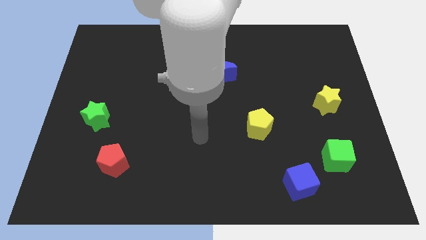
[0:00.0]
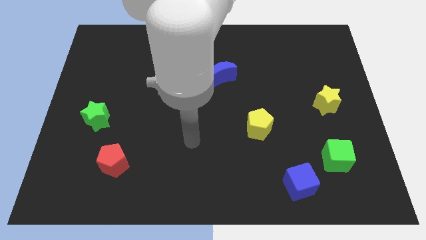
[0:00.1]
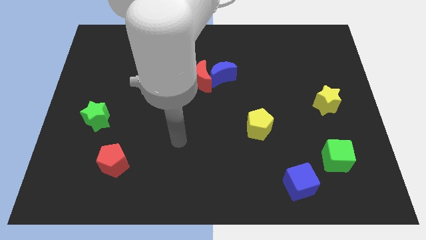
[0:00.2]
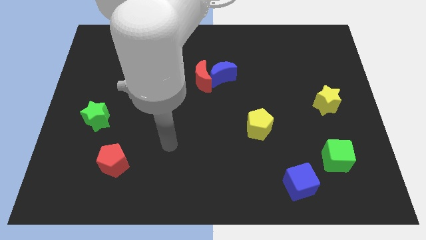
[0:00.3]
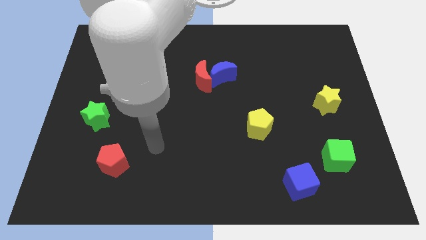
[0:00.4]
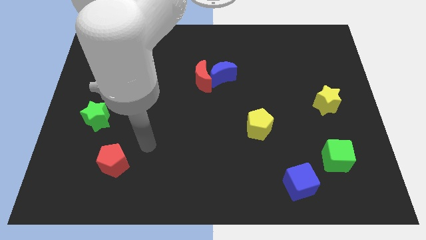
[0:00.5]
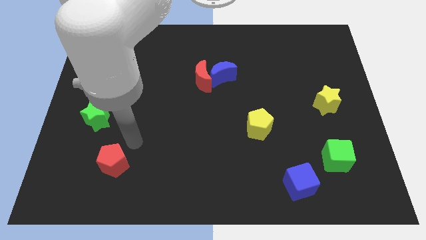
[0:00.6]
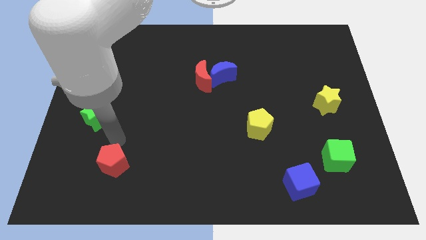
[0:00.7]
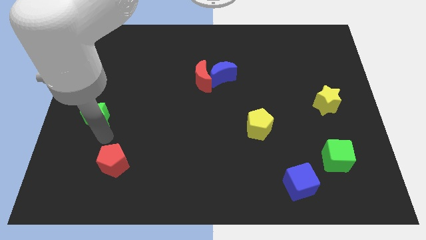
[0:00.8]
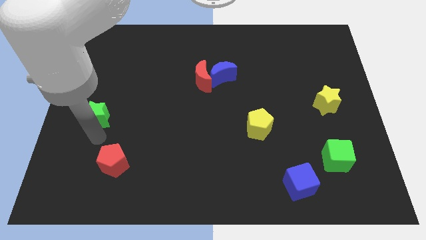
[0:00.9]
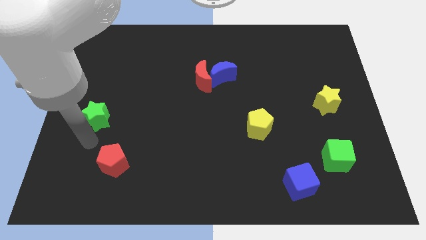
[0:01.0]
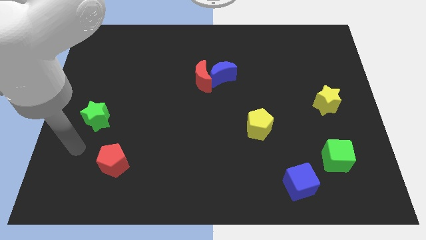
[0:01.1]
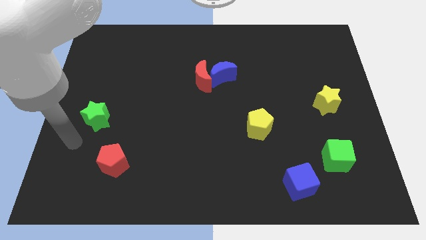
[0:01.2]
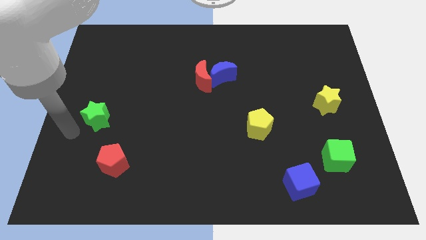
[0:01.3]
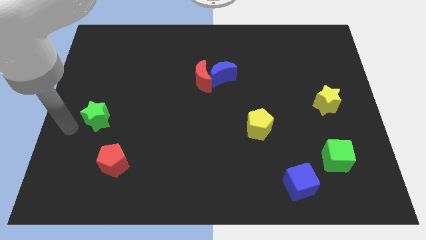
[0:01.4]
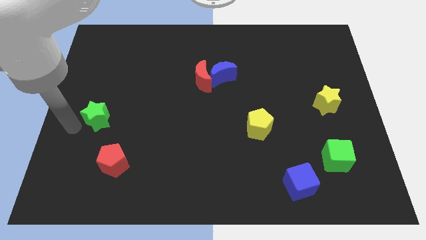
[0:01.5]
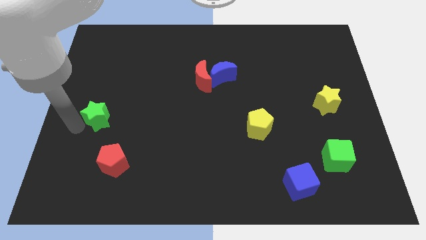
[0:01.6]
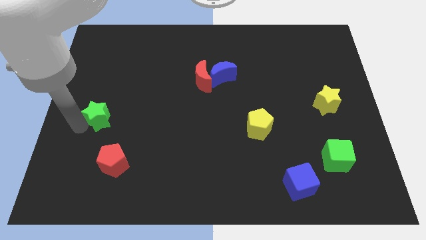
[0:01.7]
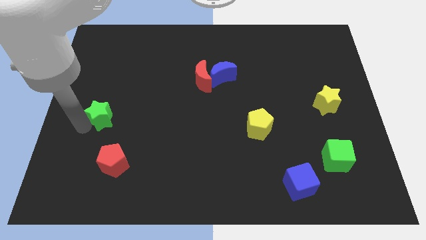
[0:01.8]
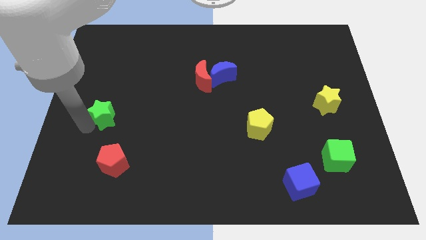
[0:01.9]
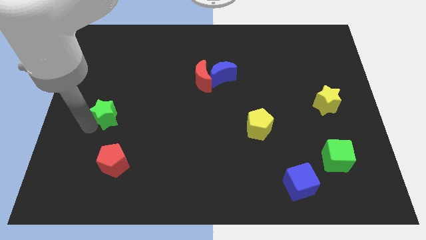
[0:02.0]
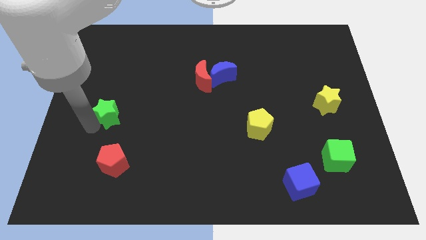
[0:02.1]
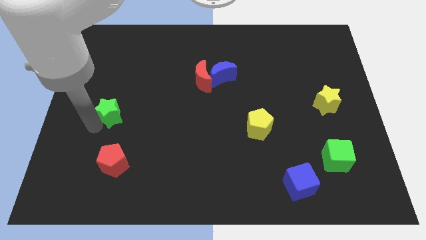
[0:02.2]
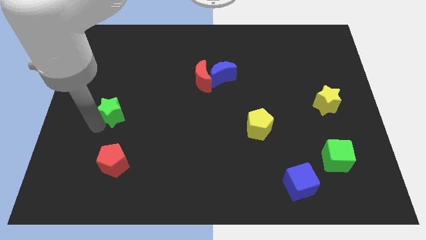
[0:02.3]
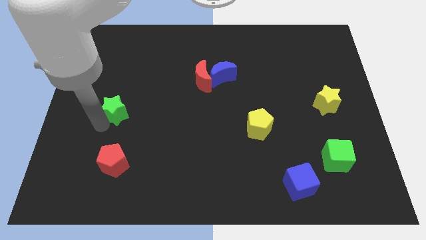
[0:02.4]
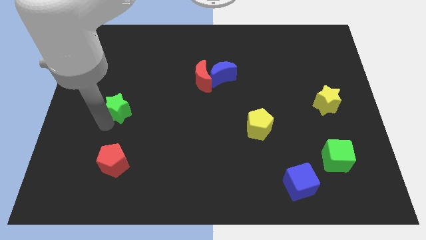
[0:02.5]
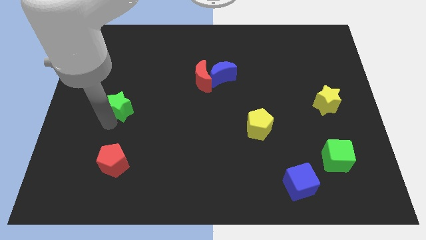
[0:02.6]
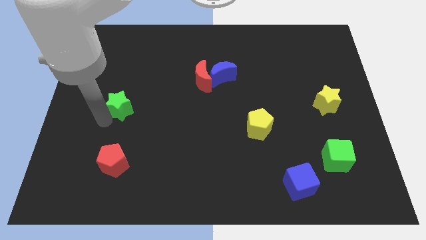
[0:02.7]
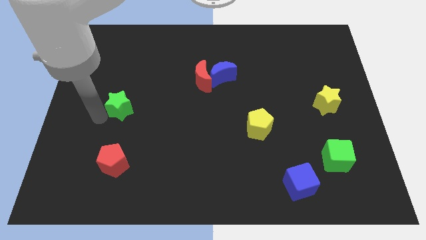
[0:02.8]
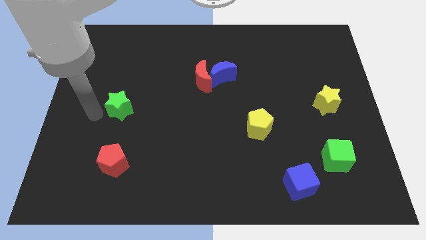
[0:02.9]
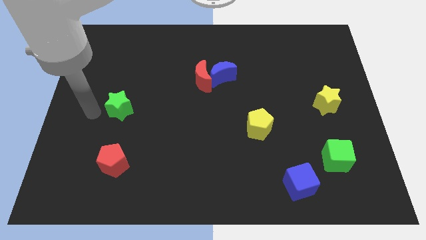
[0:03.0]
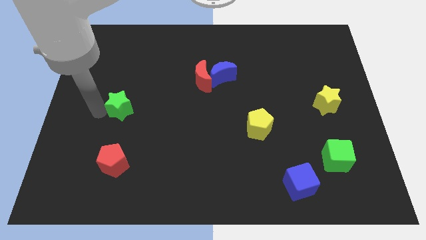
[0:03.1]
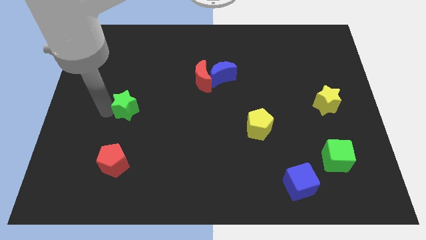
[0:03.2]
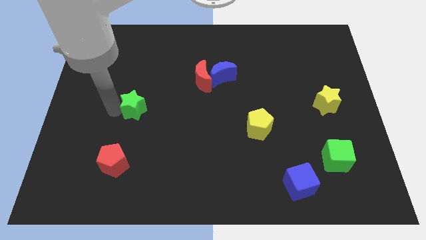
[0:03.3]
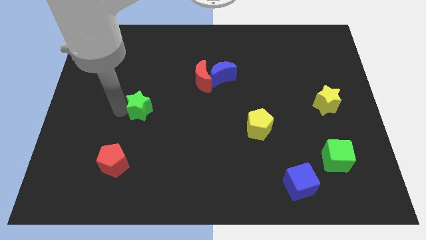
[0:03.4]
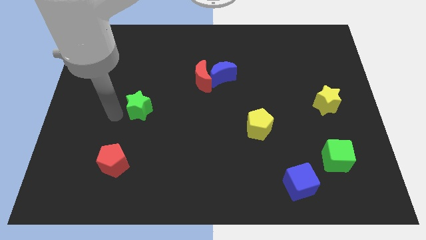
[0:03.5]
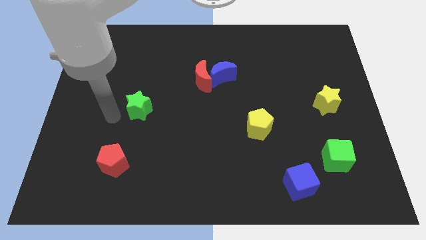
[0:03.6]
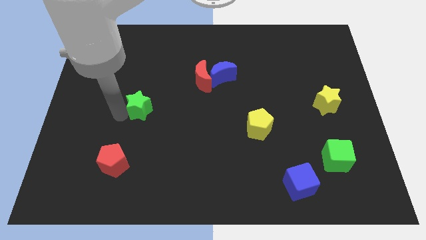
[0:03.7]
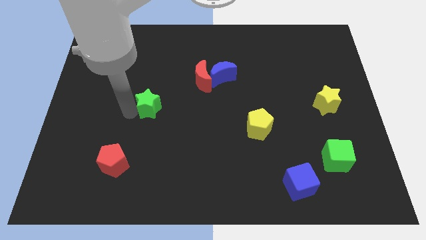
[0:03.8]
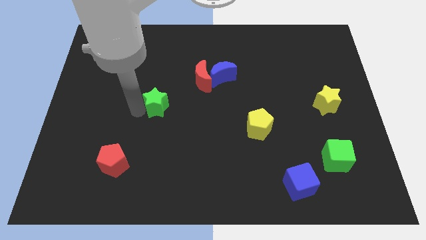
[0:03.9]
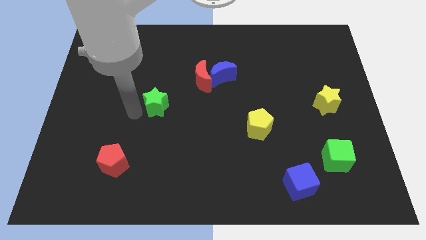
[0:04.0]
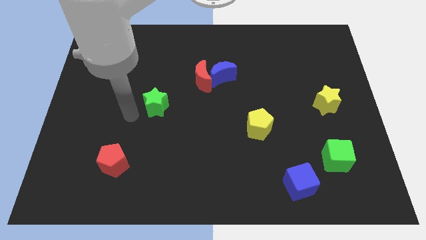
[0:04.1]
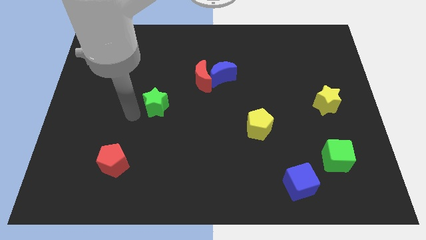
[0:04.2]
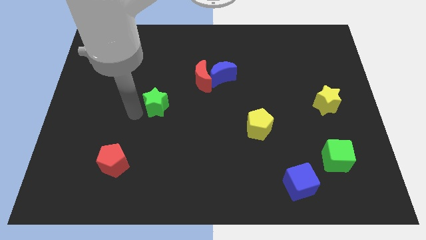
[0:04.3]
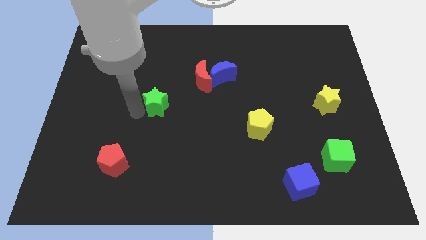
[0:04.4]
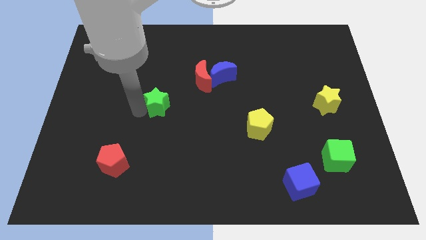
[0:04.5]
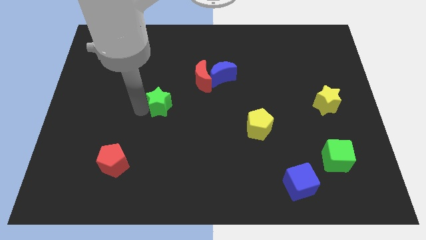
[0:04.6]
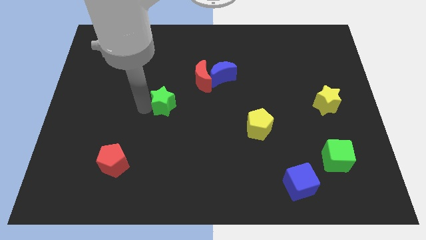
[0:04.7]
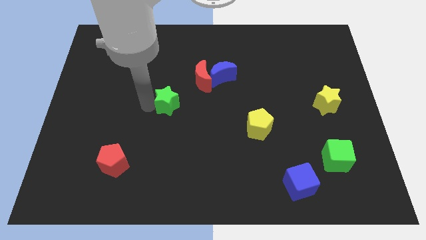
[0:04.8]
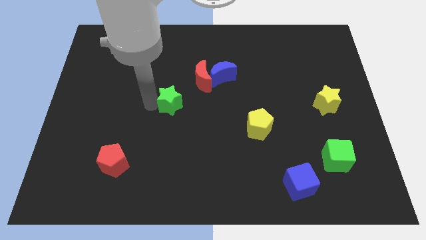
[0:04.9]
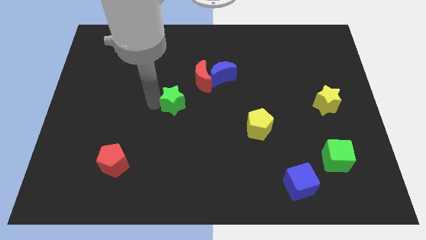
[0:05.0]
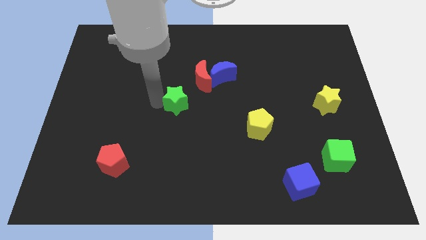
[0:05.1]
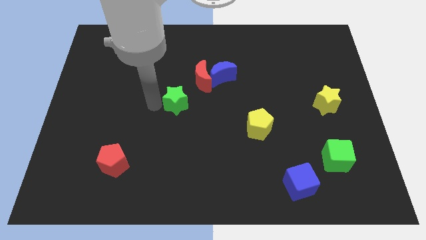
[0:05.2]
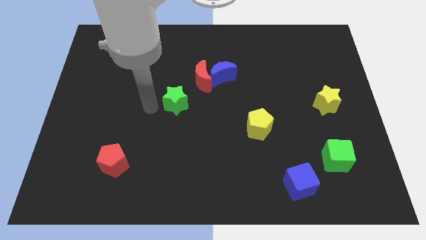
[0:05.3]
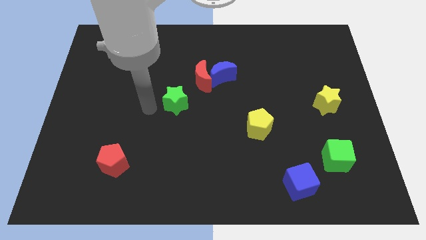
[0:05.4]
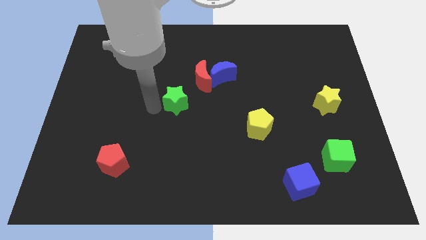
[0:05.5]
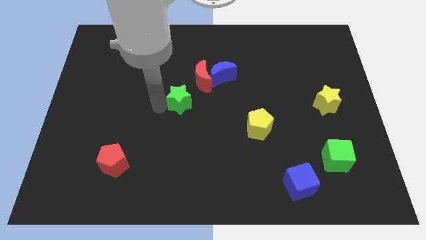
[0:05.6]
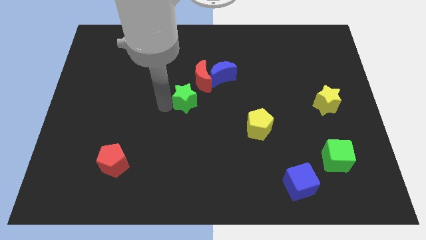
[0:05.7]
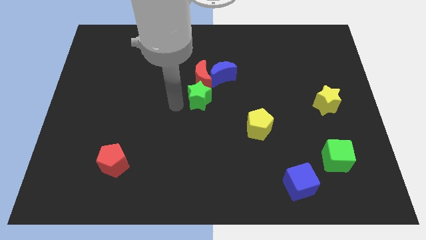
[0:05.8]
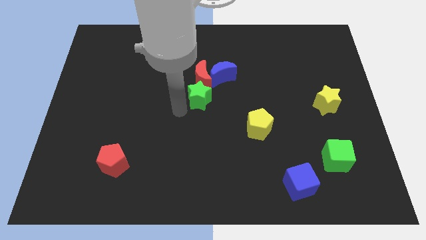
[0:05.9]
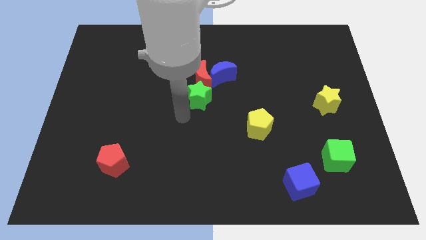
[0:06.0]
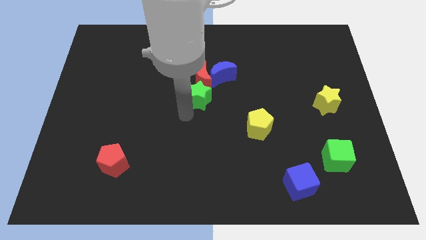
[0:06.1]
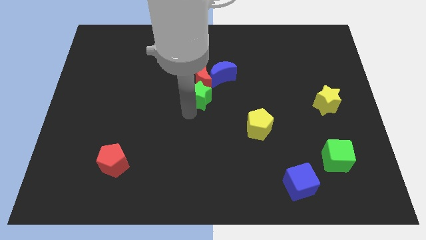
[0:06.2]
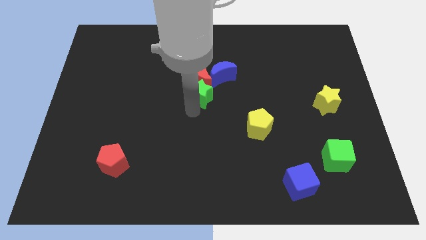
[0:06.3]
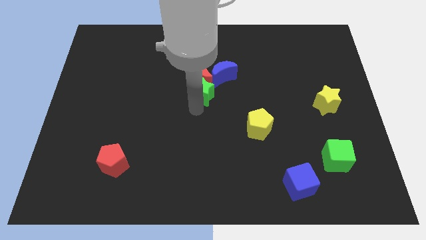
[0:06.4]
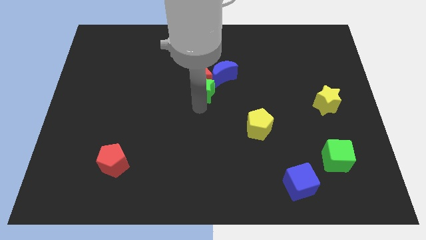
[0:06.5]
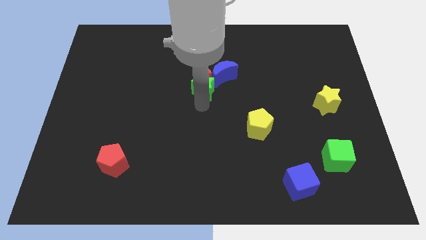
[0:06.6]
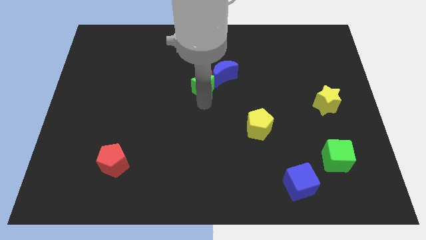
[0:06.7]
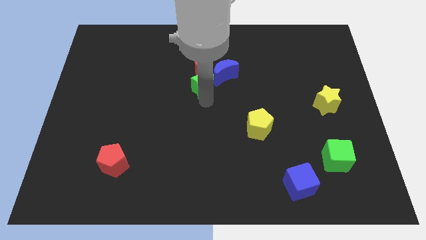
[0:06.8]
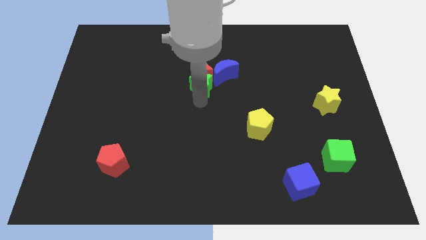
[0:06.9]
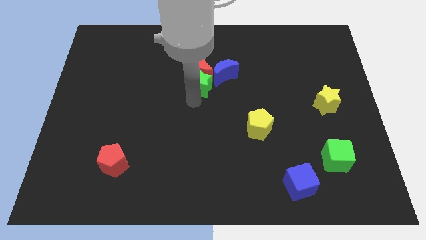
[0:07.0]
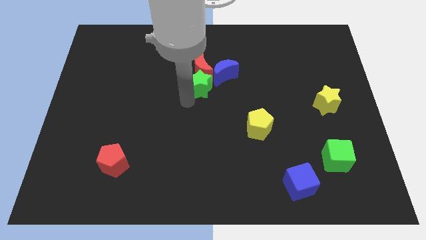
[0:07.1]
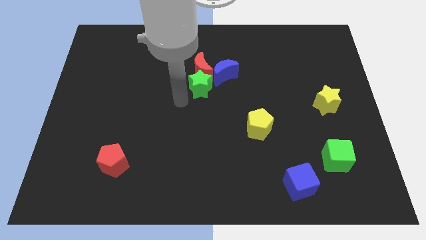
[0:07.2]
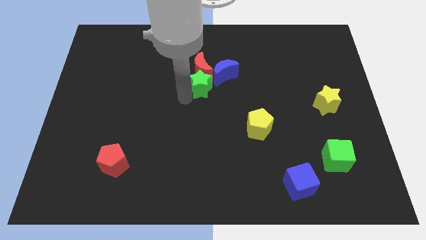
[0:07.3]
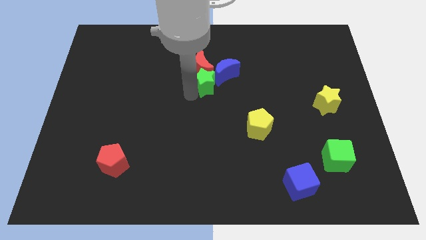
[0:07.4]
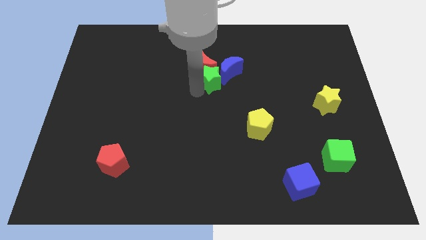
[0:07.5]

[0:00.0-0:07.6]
push the green star next to the blue moon
